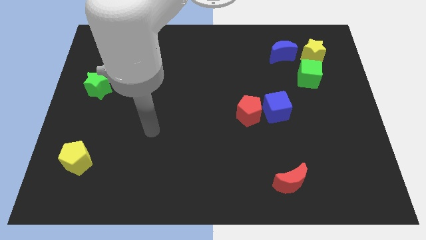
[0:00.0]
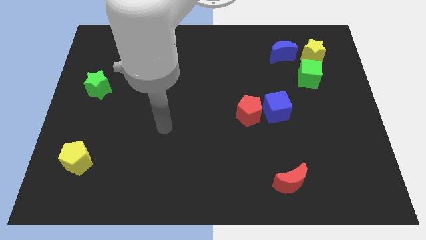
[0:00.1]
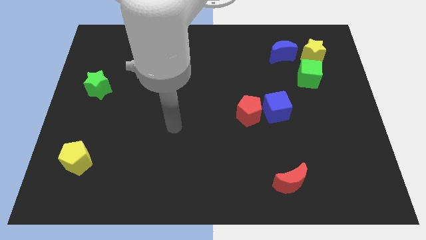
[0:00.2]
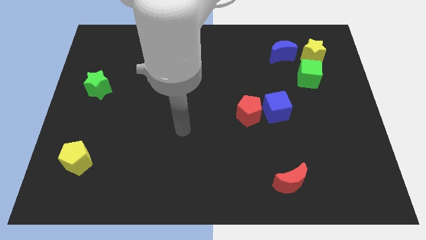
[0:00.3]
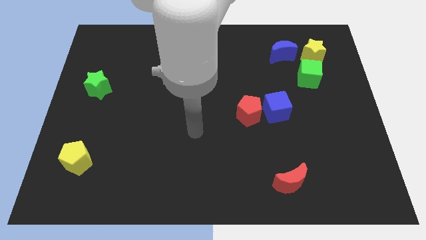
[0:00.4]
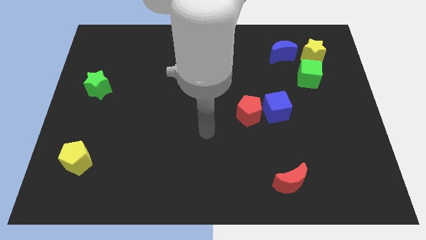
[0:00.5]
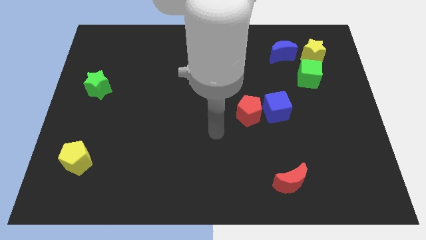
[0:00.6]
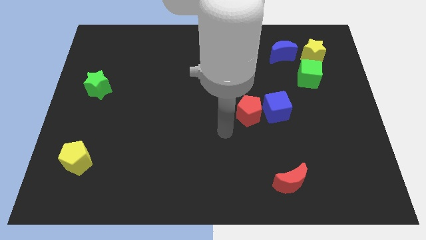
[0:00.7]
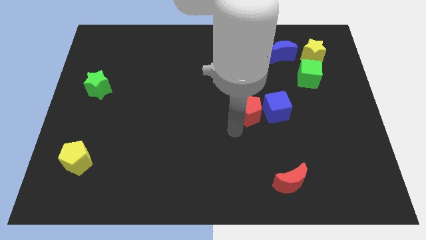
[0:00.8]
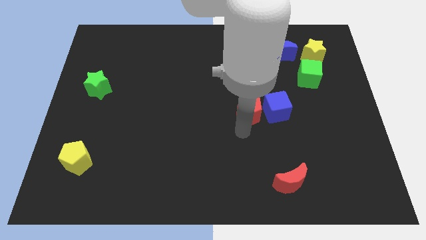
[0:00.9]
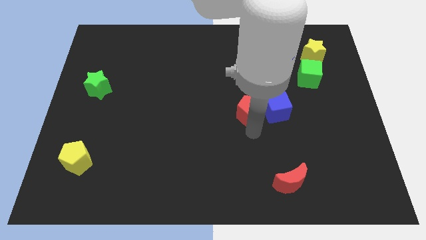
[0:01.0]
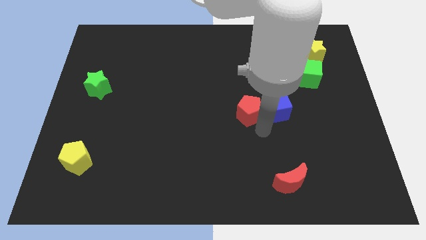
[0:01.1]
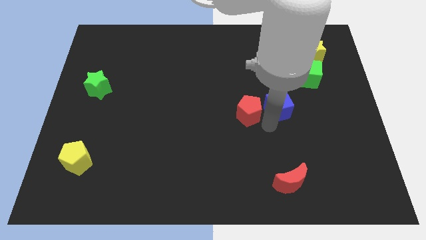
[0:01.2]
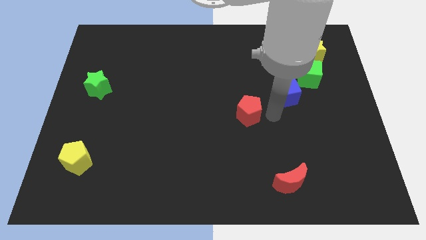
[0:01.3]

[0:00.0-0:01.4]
pull the red pentagon apart from the blue cube

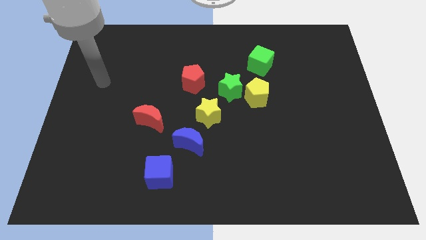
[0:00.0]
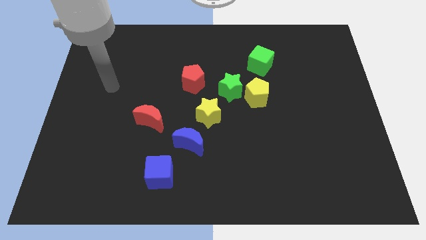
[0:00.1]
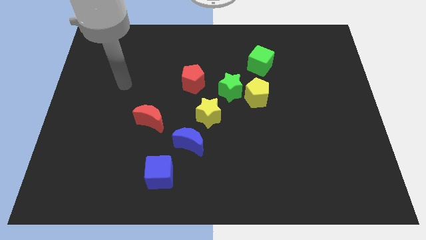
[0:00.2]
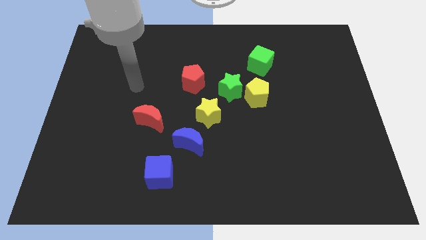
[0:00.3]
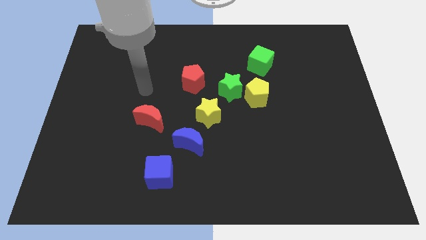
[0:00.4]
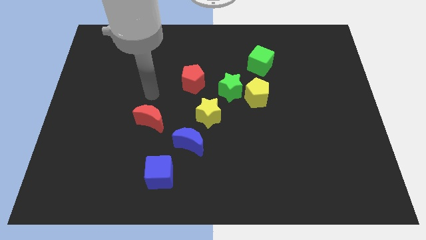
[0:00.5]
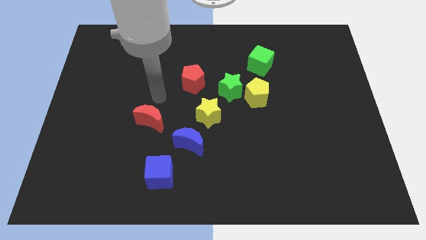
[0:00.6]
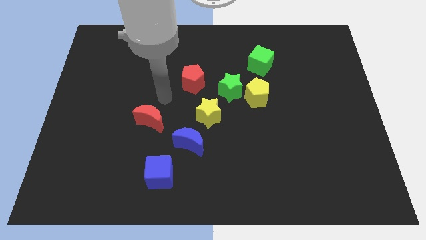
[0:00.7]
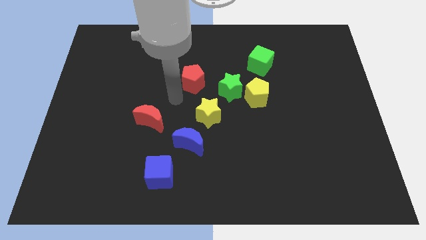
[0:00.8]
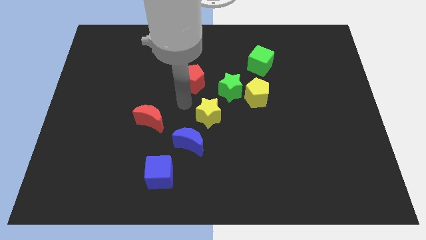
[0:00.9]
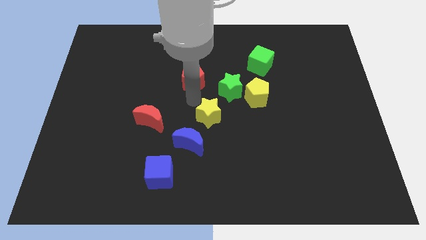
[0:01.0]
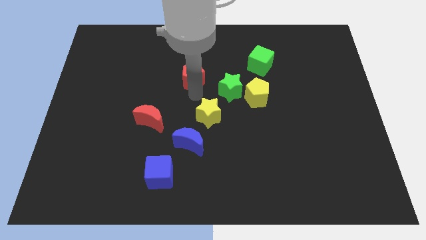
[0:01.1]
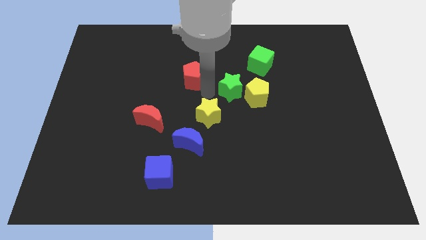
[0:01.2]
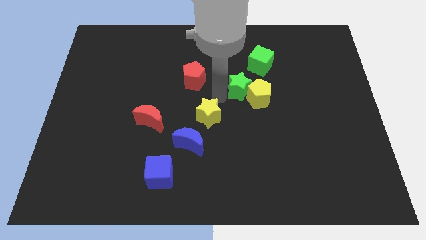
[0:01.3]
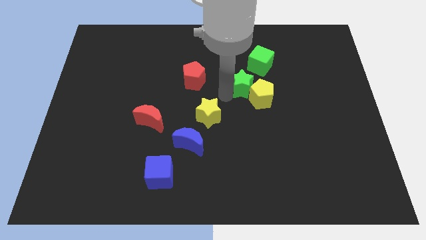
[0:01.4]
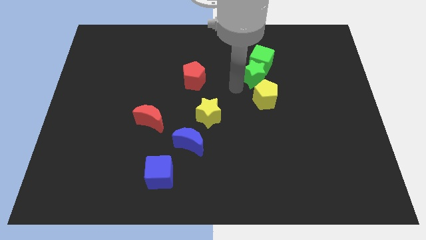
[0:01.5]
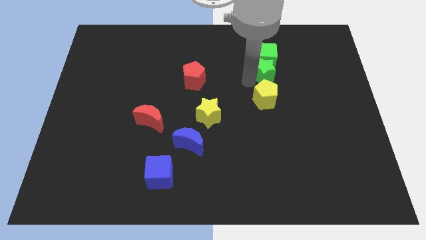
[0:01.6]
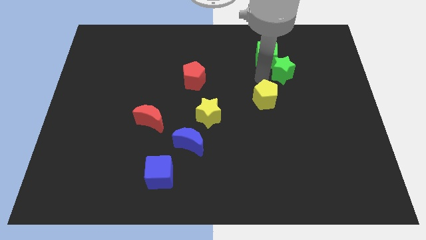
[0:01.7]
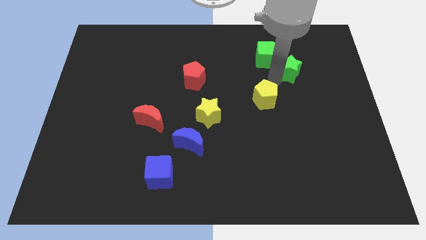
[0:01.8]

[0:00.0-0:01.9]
separate the yellow pentagon from the green star

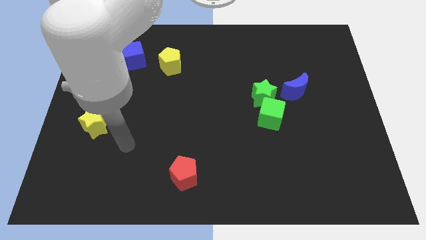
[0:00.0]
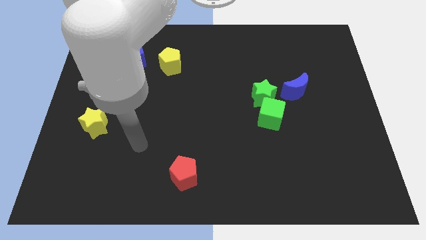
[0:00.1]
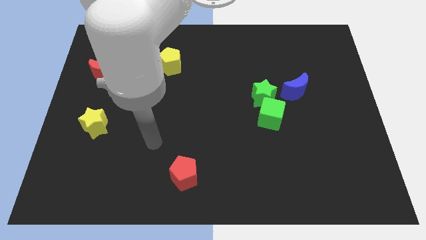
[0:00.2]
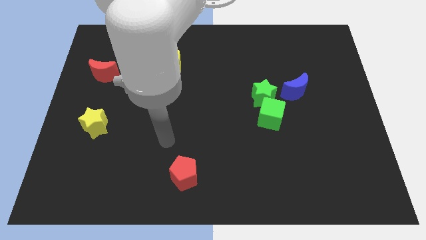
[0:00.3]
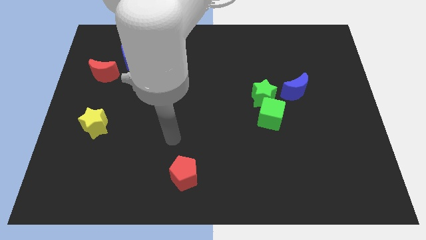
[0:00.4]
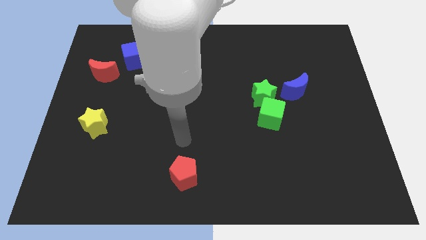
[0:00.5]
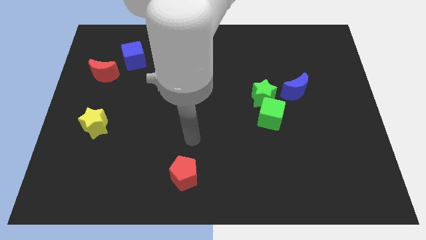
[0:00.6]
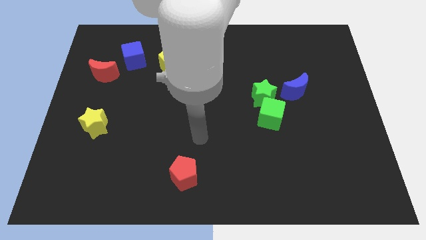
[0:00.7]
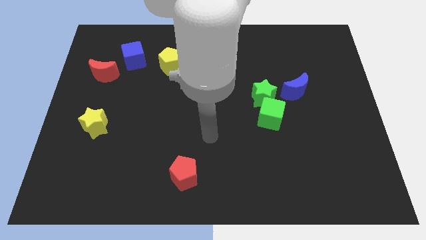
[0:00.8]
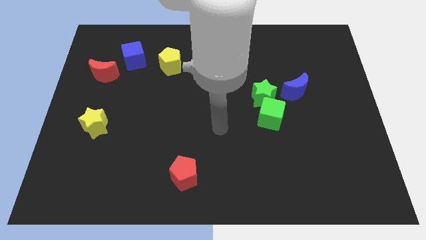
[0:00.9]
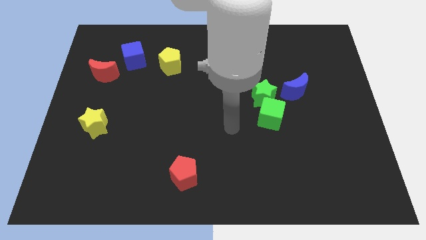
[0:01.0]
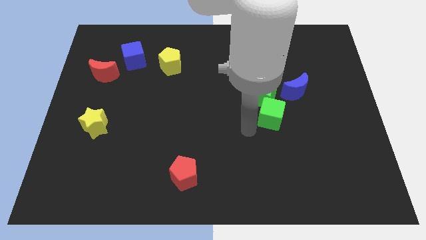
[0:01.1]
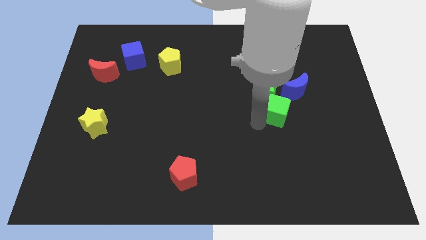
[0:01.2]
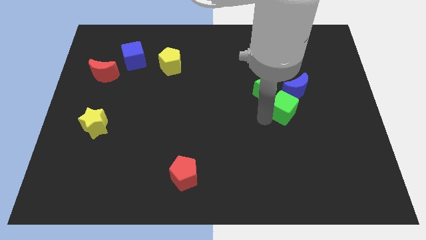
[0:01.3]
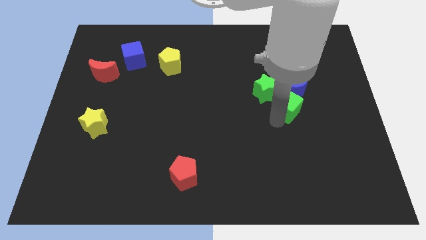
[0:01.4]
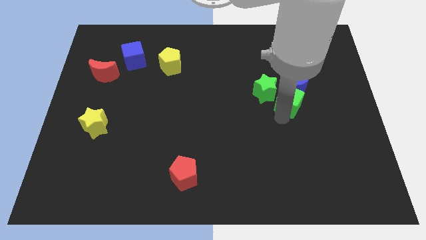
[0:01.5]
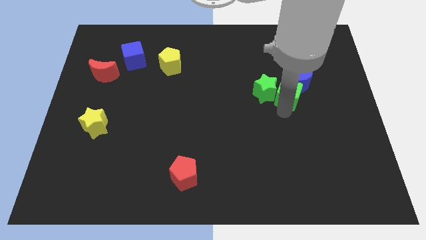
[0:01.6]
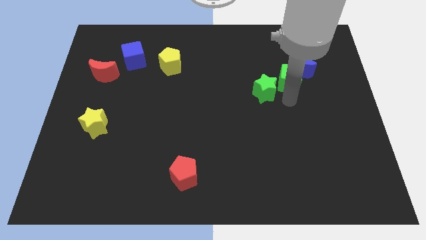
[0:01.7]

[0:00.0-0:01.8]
move the green star away from the green cube and blue moon

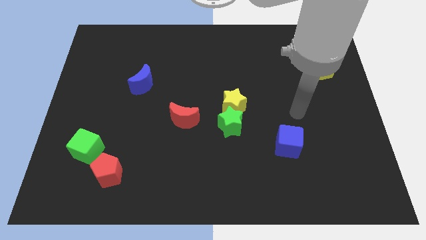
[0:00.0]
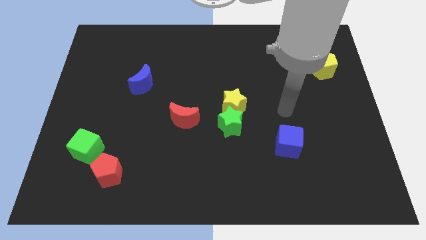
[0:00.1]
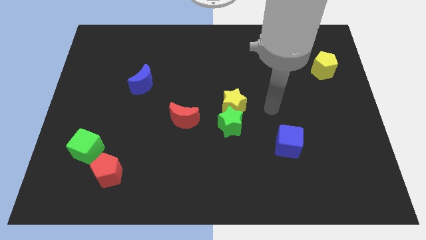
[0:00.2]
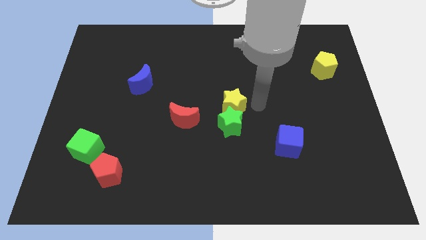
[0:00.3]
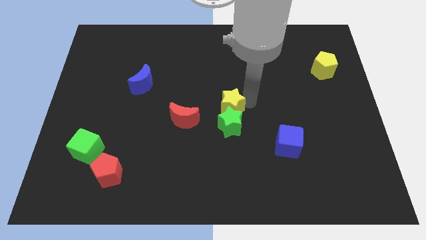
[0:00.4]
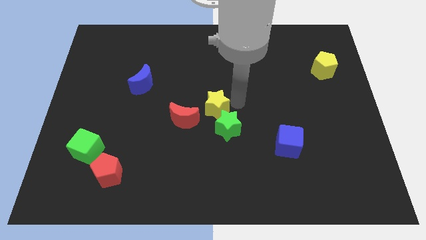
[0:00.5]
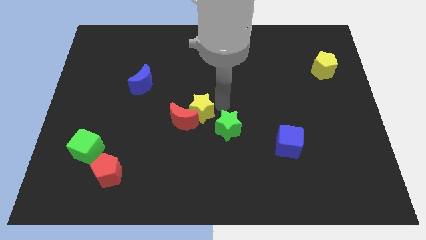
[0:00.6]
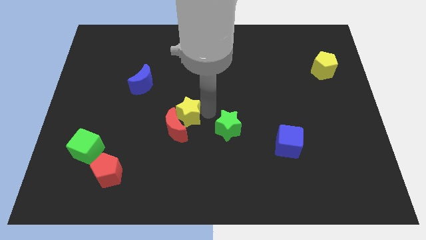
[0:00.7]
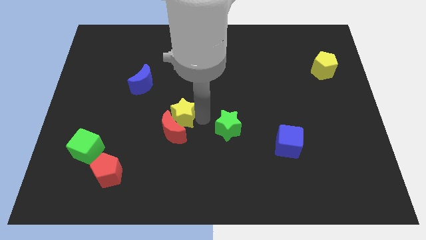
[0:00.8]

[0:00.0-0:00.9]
pull the green star apart from the yellow star

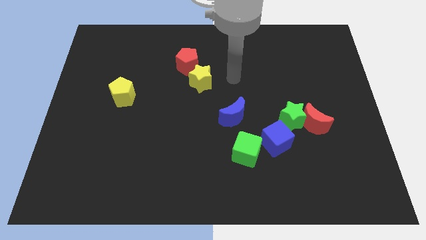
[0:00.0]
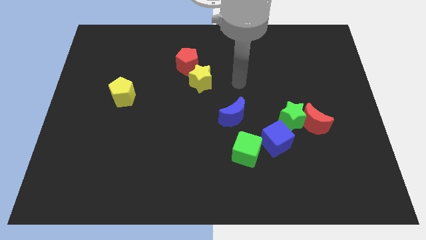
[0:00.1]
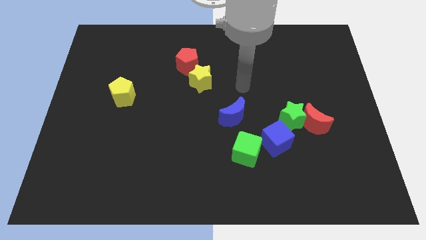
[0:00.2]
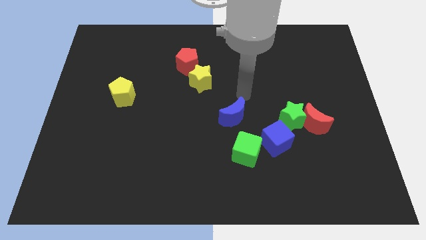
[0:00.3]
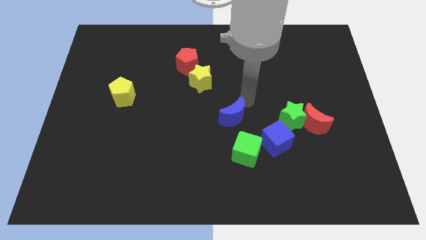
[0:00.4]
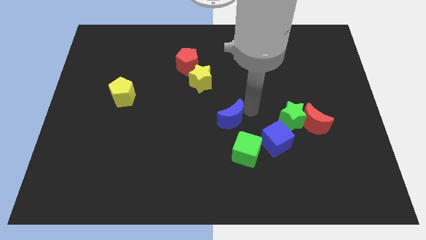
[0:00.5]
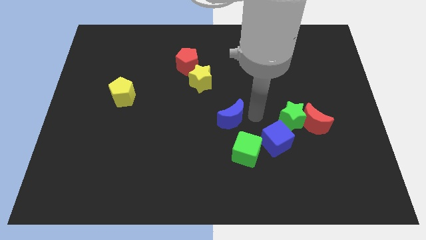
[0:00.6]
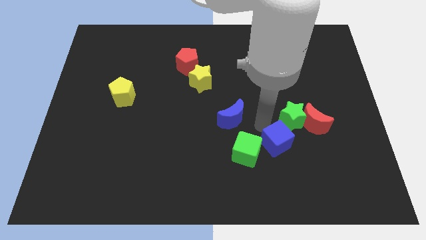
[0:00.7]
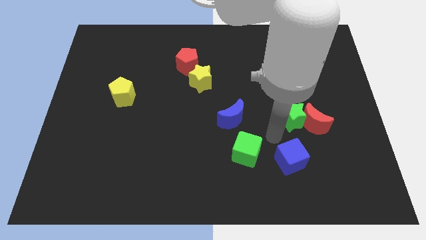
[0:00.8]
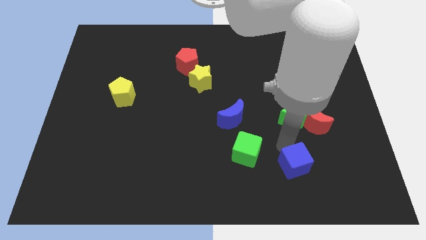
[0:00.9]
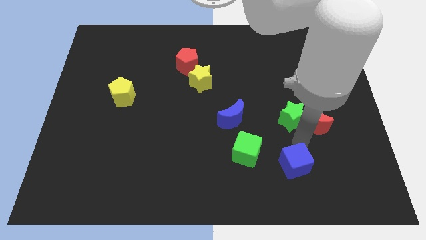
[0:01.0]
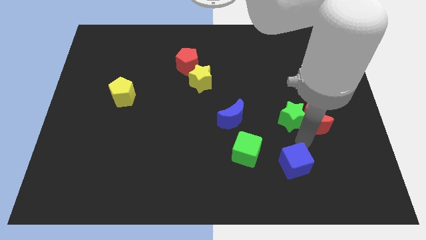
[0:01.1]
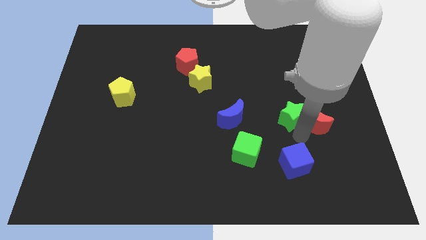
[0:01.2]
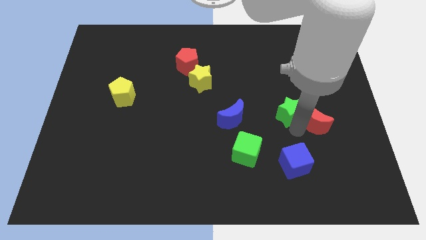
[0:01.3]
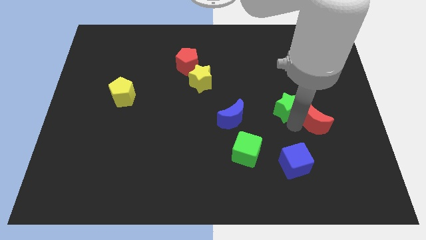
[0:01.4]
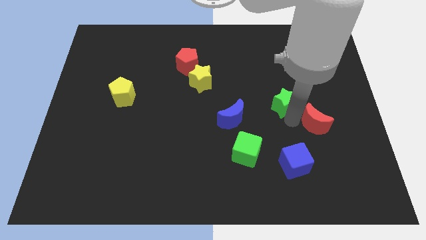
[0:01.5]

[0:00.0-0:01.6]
pull the green star apart from the red moon and blue cube

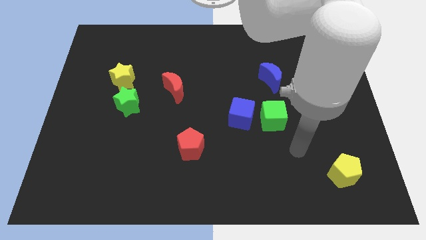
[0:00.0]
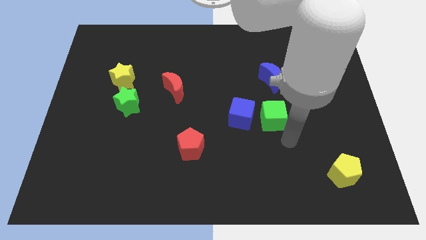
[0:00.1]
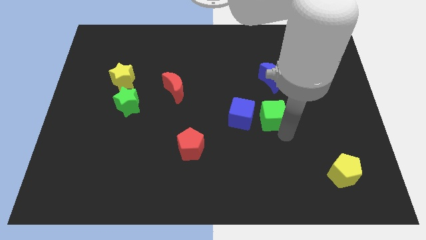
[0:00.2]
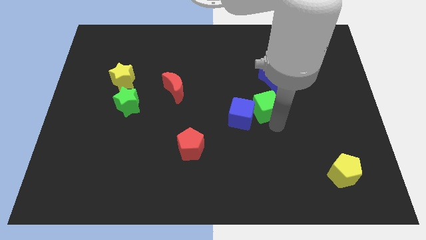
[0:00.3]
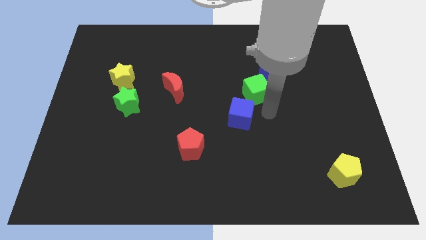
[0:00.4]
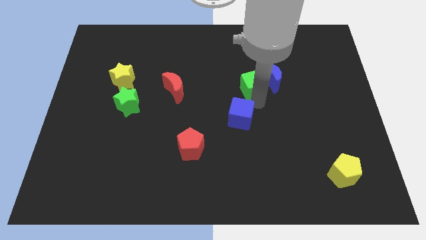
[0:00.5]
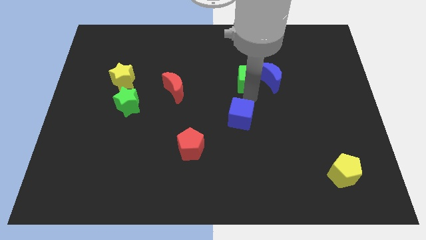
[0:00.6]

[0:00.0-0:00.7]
separate the blue cube from the green cube

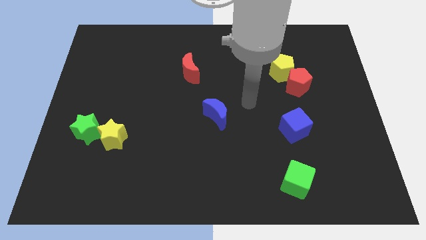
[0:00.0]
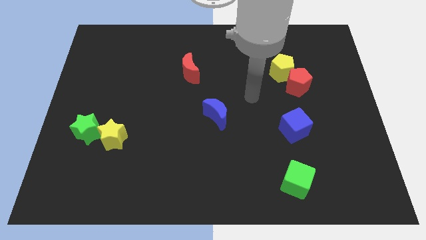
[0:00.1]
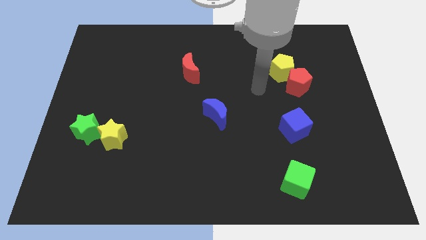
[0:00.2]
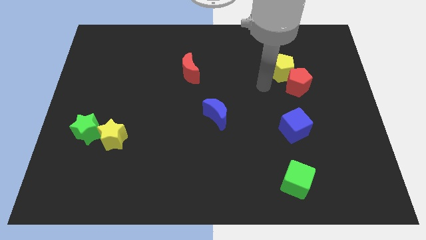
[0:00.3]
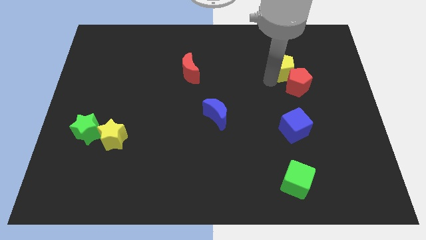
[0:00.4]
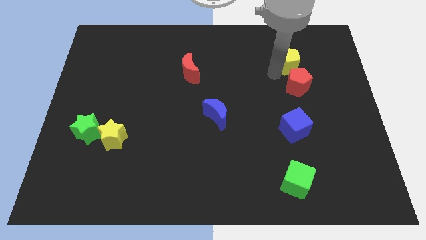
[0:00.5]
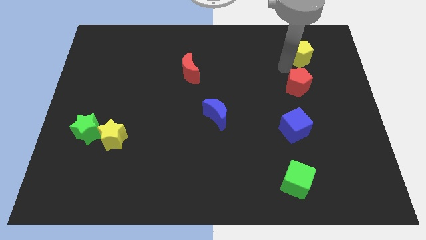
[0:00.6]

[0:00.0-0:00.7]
separate the red pentagon from the yellow pentagon

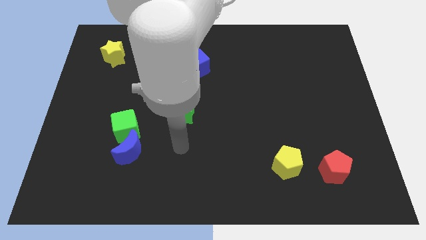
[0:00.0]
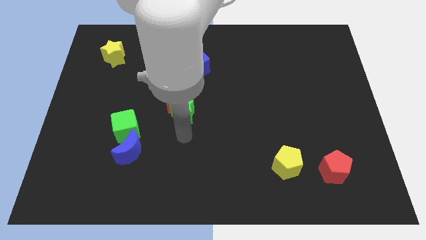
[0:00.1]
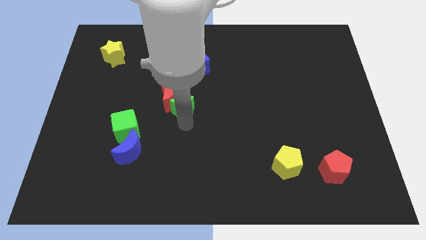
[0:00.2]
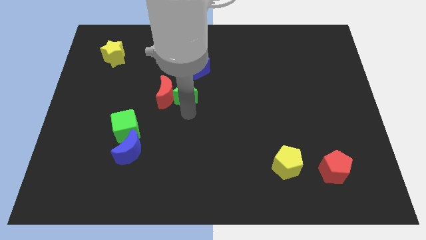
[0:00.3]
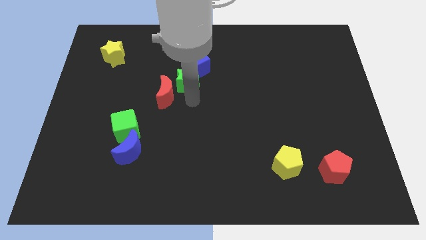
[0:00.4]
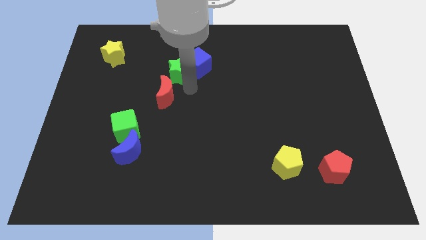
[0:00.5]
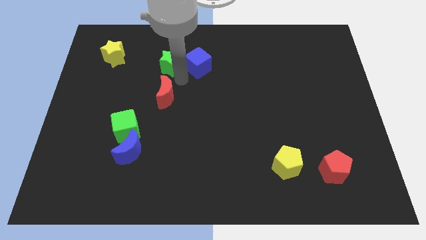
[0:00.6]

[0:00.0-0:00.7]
move the red moon away from the green star
